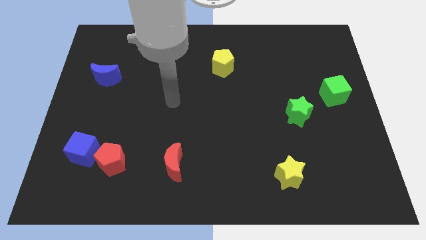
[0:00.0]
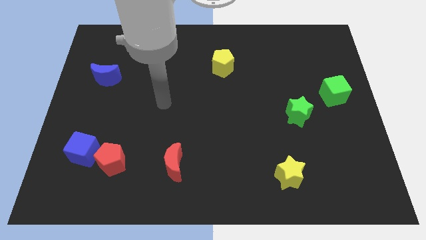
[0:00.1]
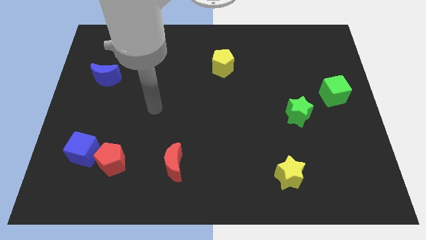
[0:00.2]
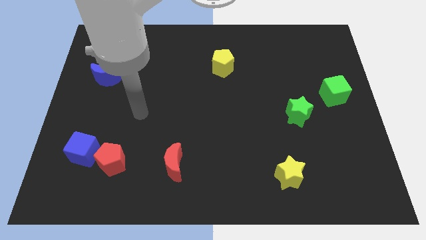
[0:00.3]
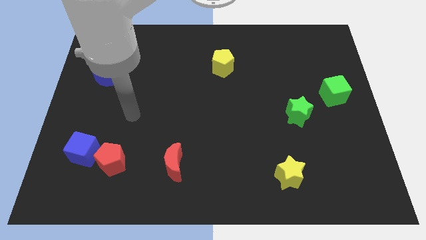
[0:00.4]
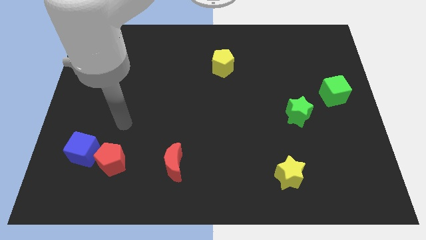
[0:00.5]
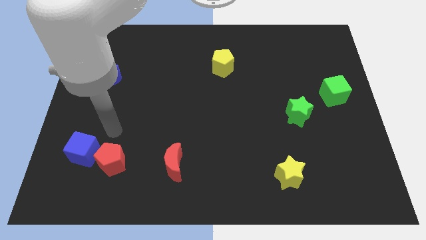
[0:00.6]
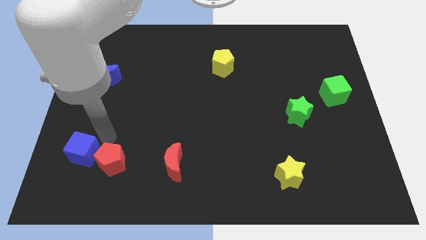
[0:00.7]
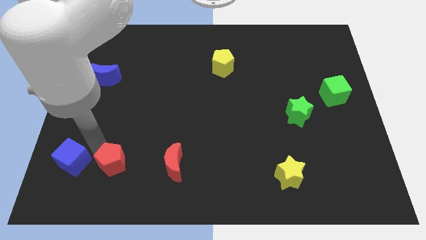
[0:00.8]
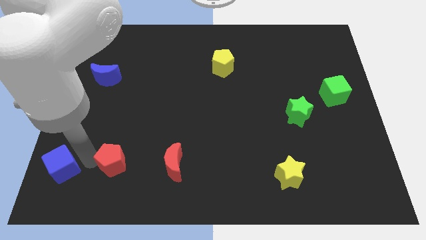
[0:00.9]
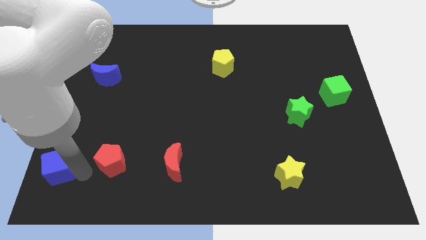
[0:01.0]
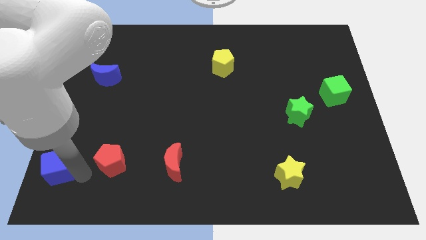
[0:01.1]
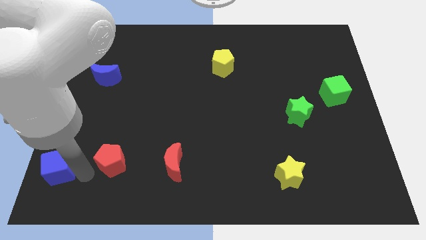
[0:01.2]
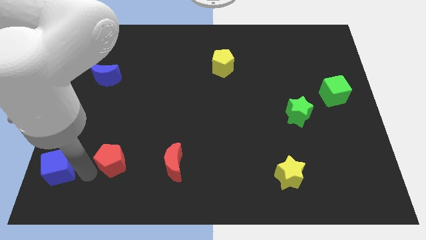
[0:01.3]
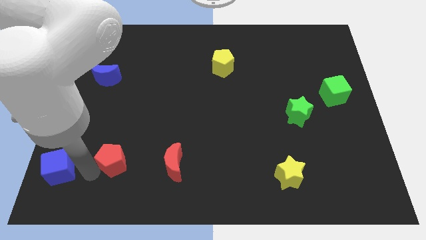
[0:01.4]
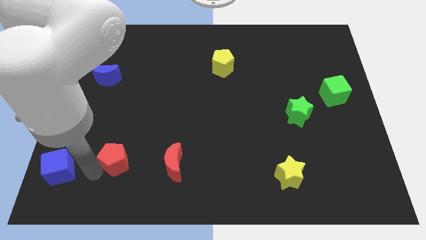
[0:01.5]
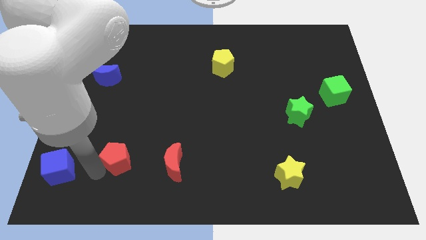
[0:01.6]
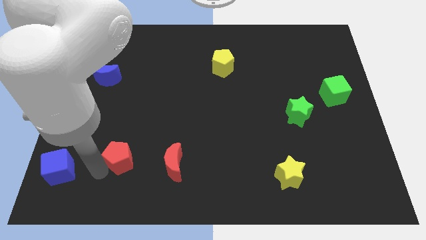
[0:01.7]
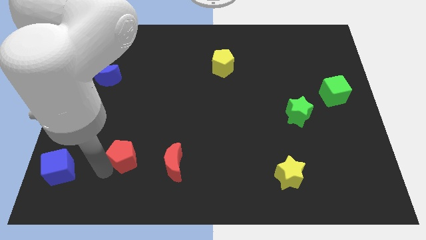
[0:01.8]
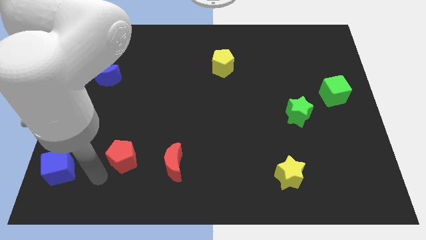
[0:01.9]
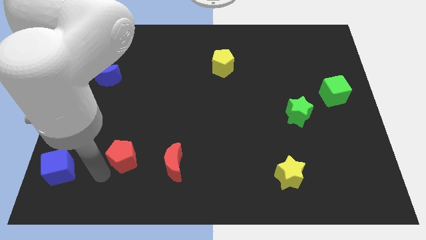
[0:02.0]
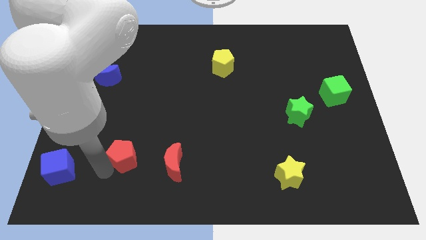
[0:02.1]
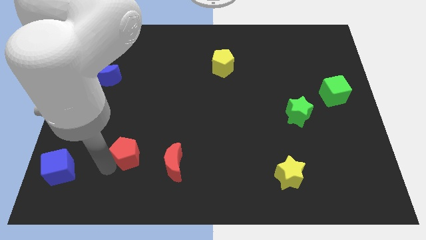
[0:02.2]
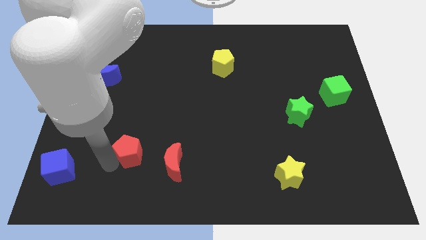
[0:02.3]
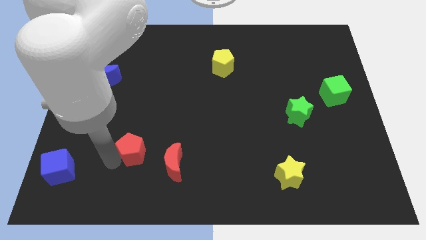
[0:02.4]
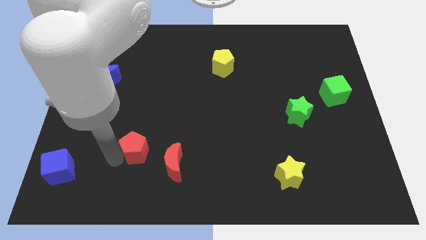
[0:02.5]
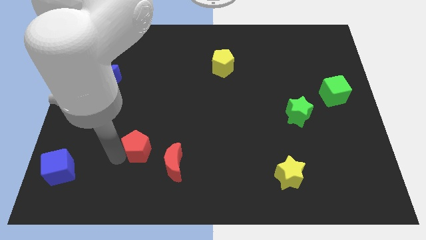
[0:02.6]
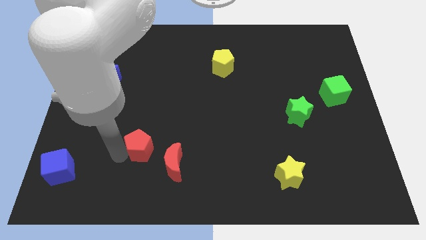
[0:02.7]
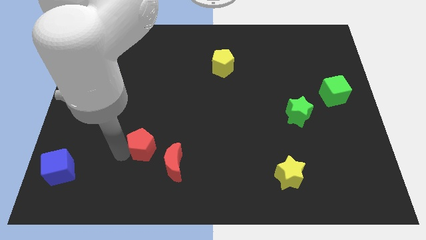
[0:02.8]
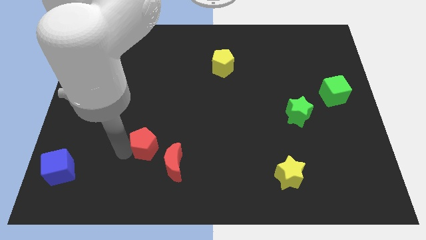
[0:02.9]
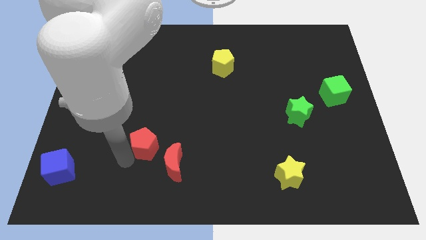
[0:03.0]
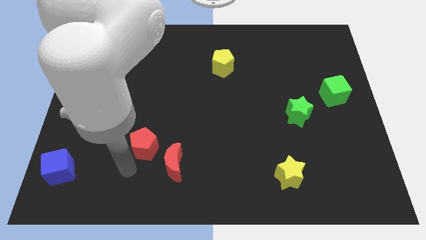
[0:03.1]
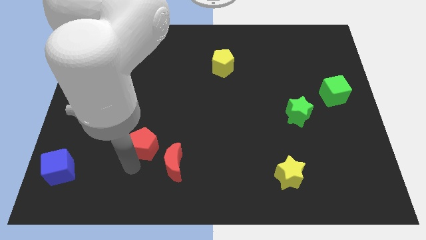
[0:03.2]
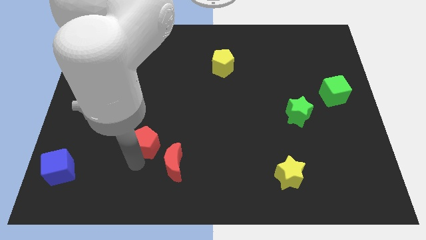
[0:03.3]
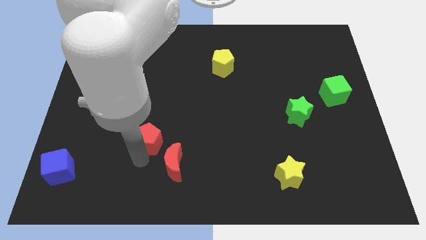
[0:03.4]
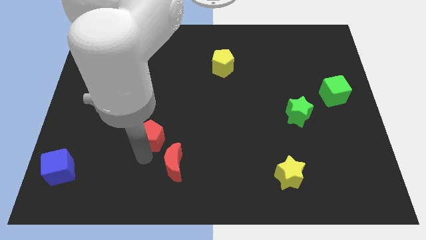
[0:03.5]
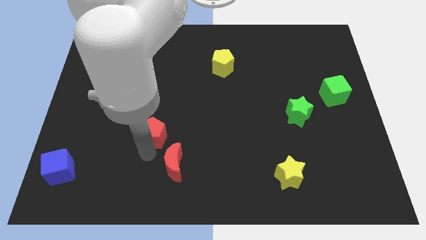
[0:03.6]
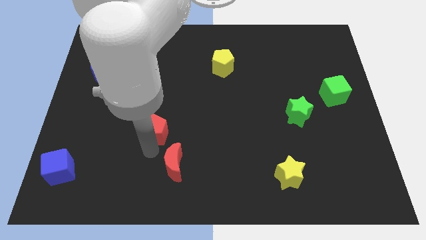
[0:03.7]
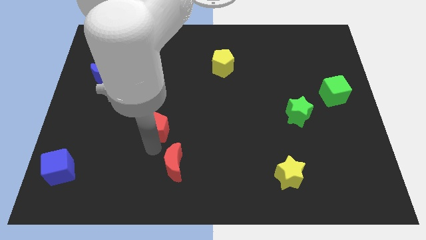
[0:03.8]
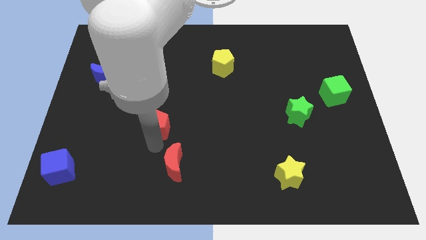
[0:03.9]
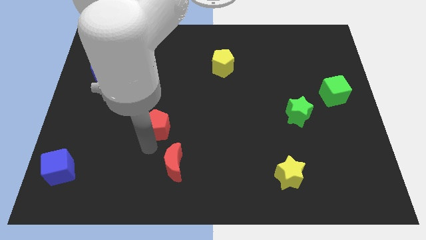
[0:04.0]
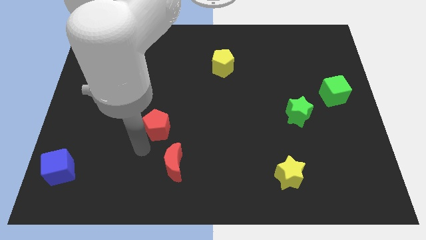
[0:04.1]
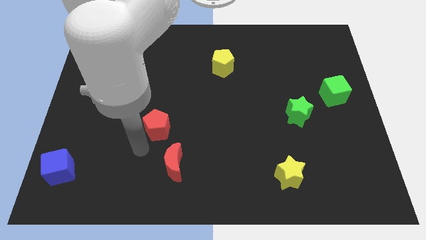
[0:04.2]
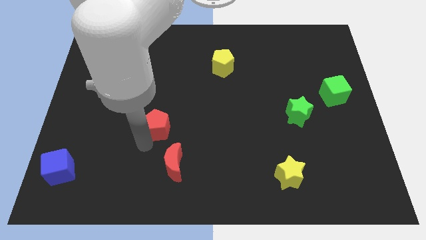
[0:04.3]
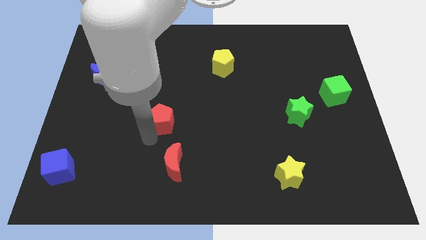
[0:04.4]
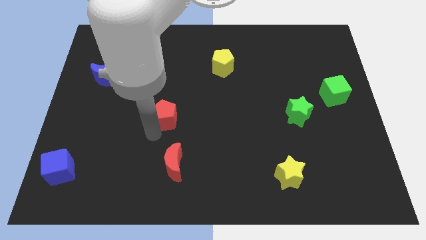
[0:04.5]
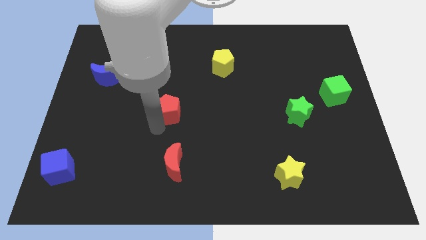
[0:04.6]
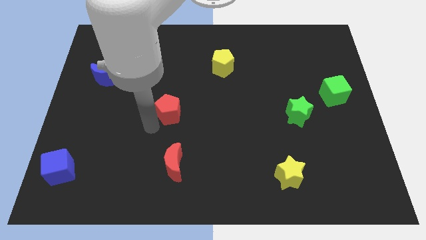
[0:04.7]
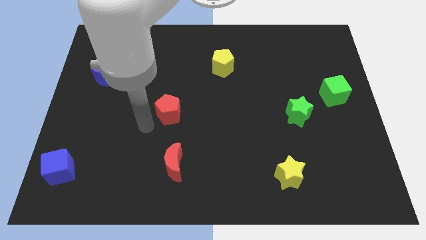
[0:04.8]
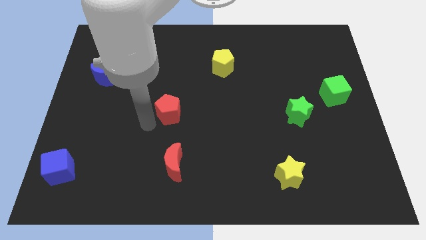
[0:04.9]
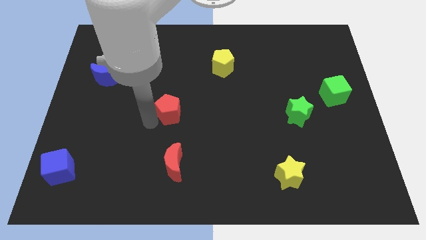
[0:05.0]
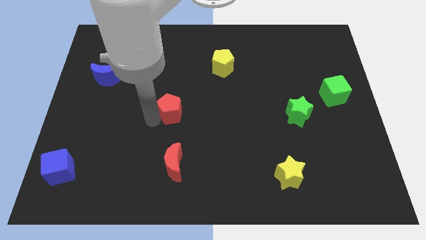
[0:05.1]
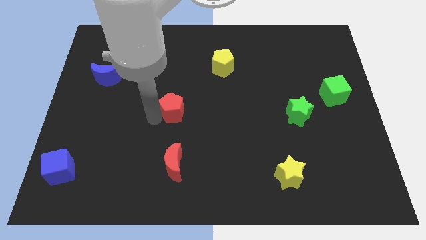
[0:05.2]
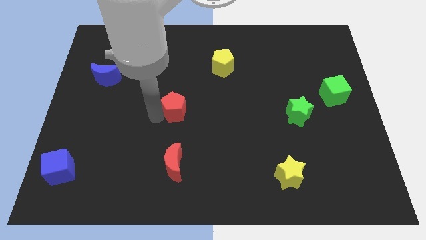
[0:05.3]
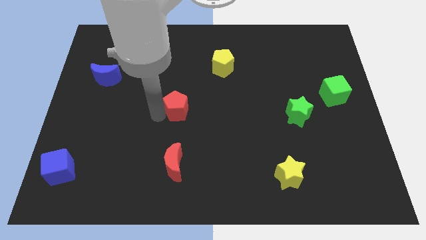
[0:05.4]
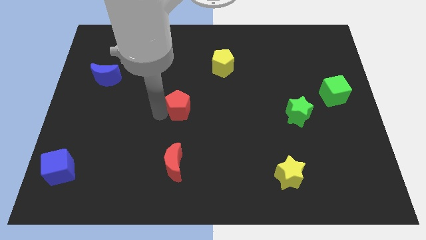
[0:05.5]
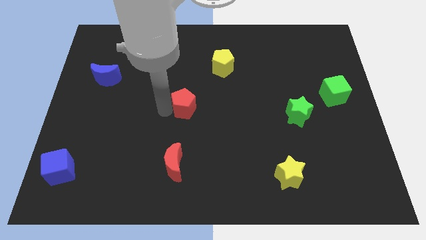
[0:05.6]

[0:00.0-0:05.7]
push the red pentagon up and to the right

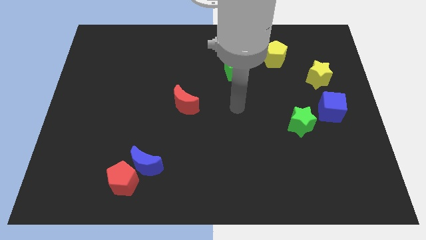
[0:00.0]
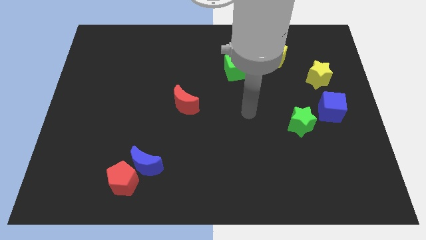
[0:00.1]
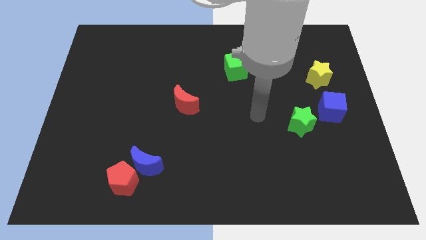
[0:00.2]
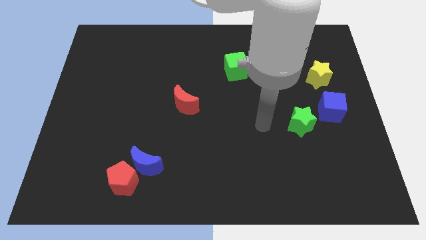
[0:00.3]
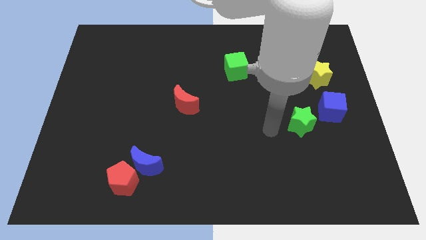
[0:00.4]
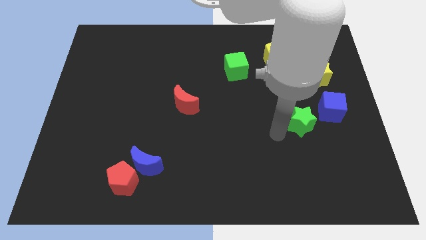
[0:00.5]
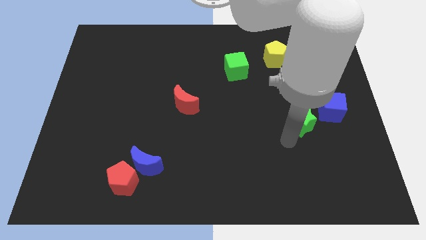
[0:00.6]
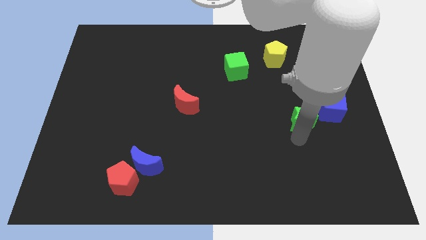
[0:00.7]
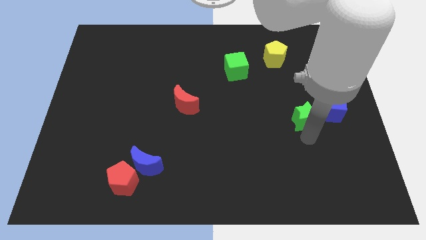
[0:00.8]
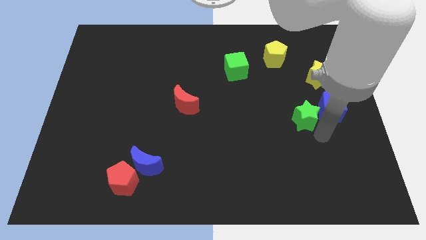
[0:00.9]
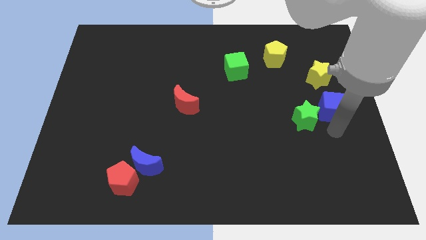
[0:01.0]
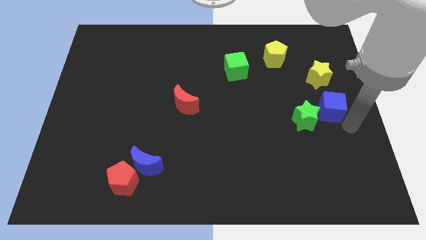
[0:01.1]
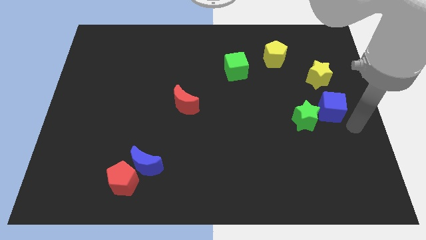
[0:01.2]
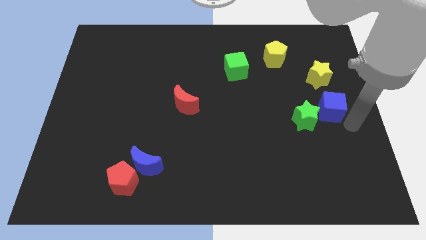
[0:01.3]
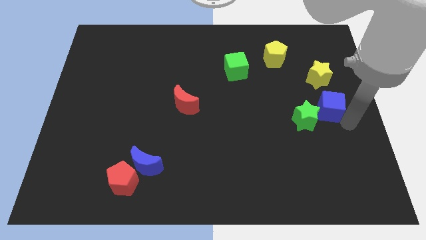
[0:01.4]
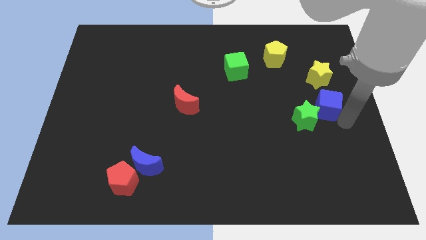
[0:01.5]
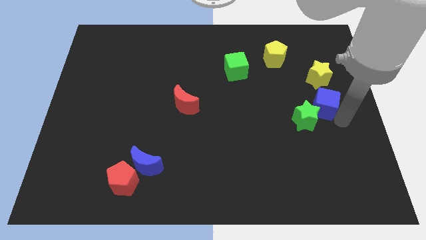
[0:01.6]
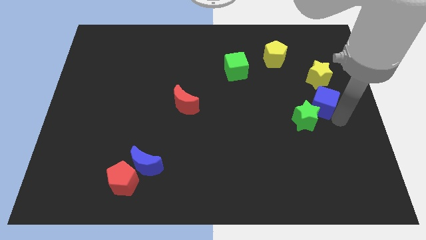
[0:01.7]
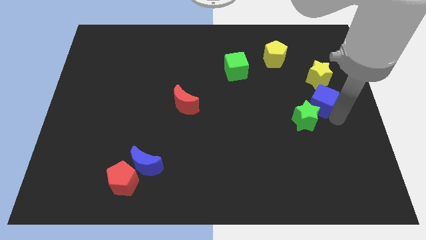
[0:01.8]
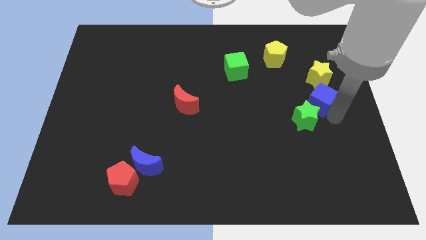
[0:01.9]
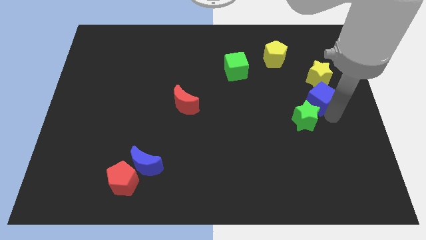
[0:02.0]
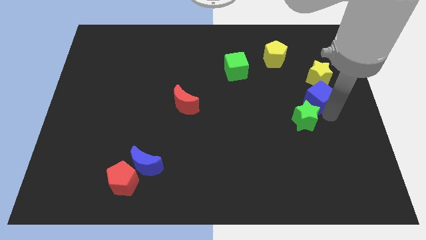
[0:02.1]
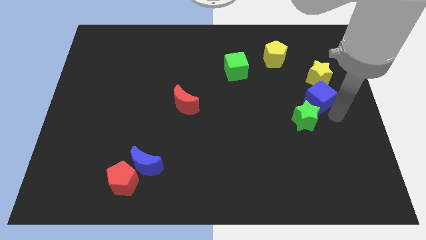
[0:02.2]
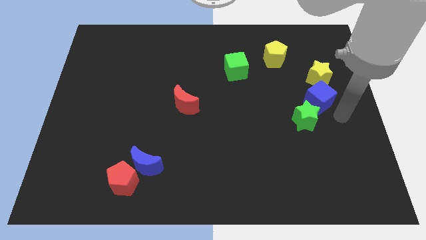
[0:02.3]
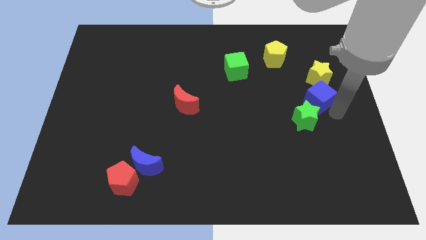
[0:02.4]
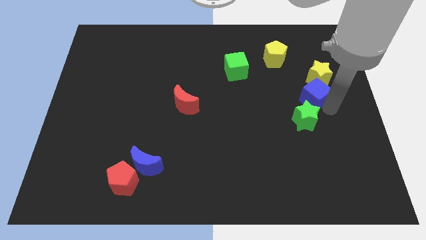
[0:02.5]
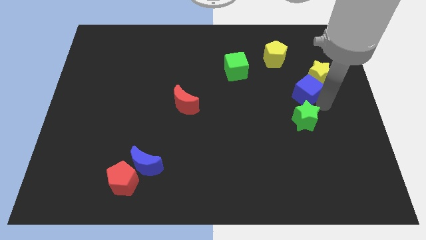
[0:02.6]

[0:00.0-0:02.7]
push the blue cube a little bit up and to the left diagonally
